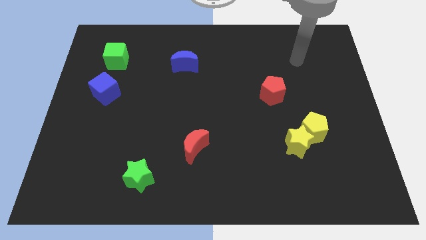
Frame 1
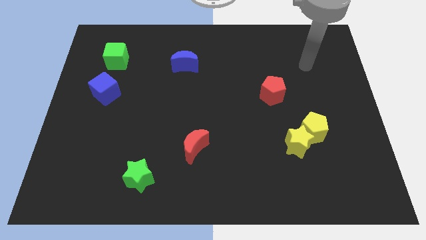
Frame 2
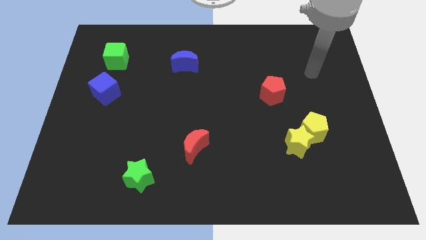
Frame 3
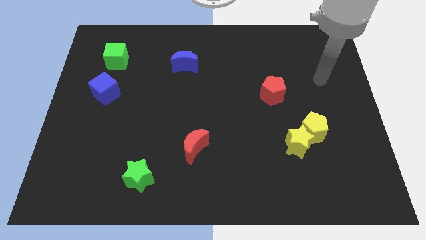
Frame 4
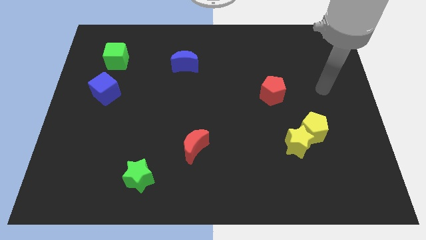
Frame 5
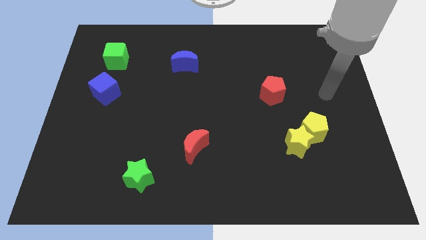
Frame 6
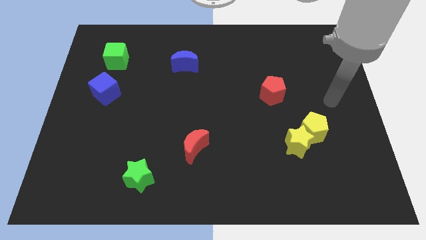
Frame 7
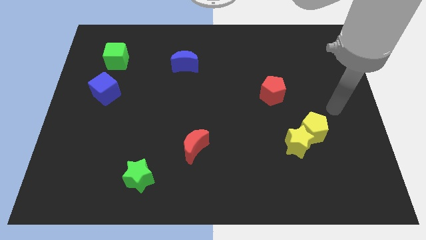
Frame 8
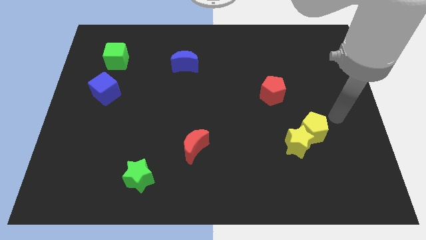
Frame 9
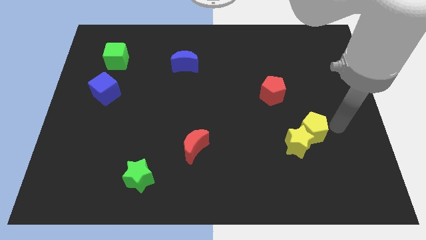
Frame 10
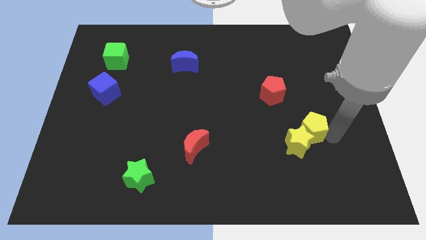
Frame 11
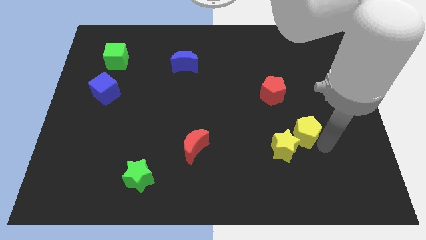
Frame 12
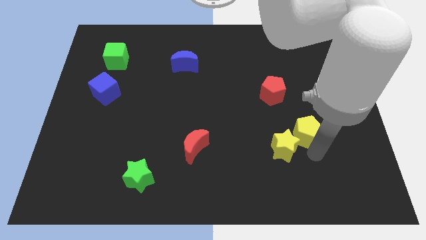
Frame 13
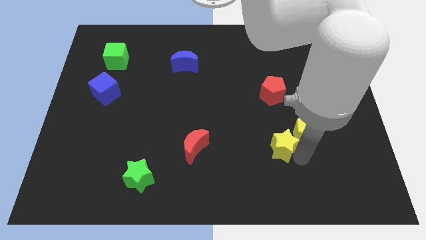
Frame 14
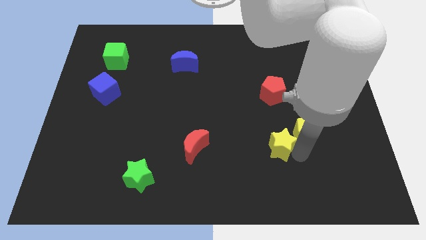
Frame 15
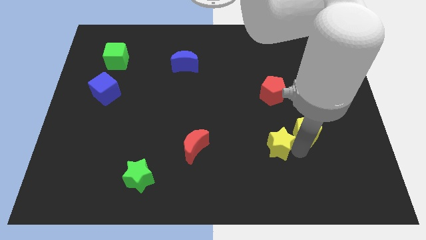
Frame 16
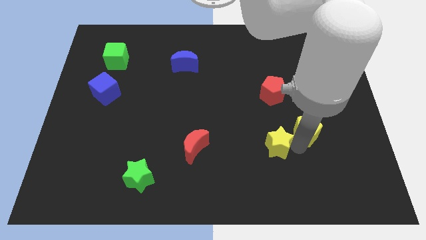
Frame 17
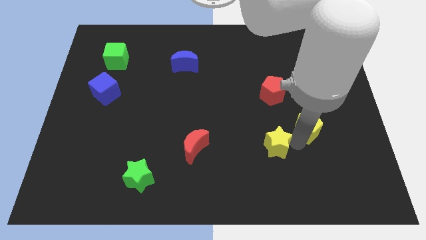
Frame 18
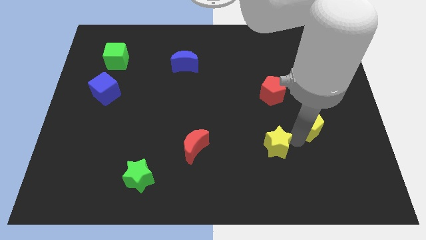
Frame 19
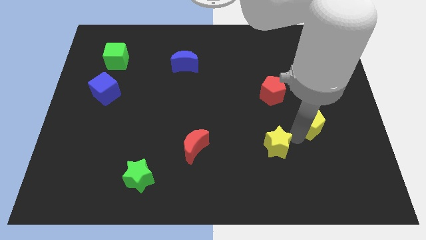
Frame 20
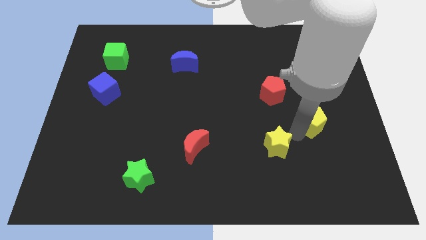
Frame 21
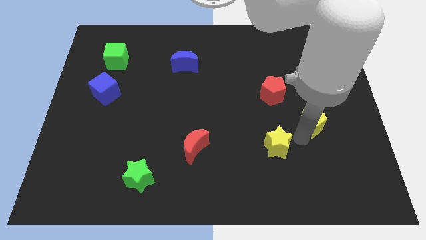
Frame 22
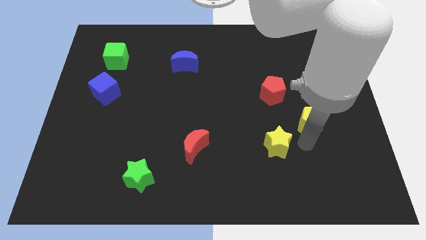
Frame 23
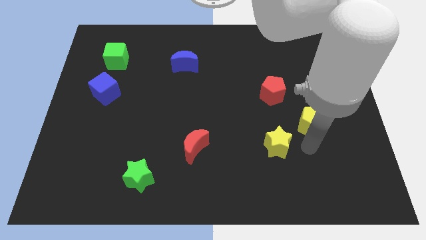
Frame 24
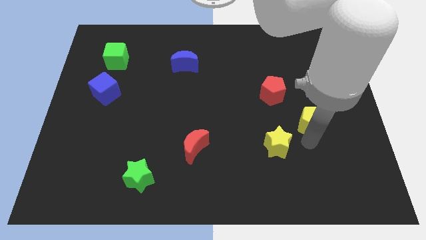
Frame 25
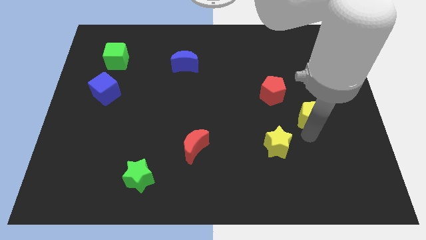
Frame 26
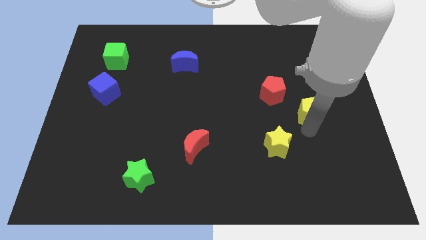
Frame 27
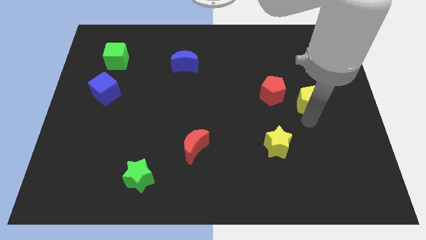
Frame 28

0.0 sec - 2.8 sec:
push the yellow pentagon a little bit upwards

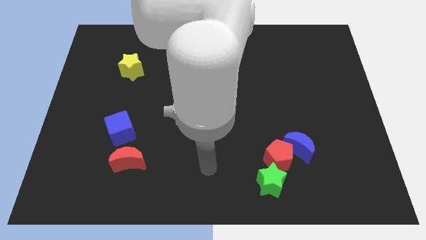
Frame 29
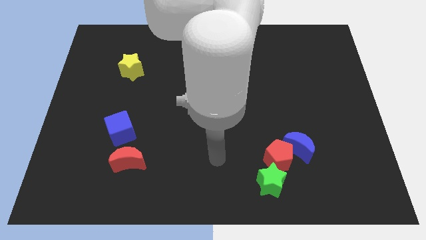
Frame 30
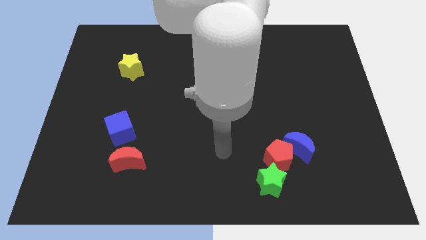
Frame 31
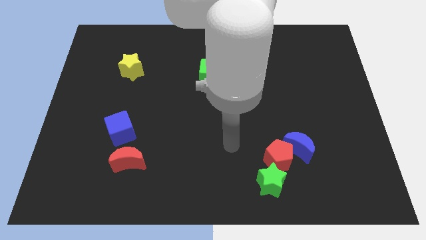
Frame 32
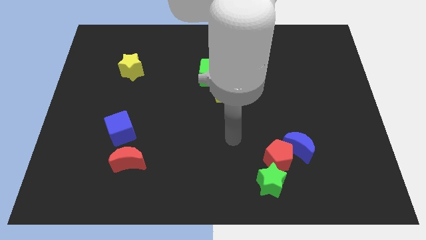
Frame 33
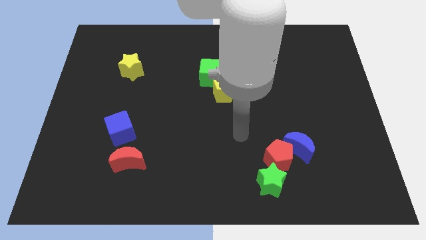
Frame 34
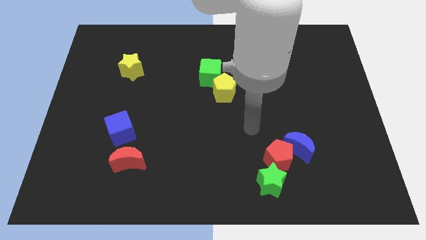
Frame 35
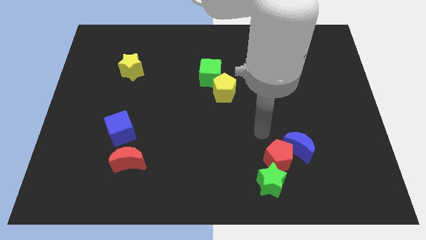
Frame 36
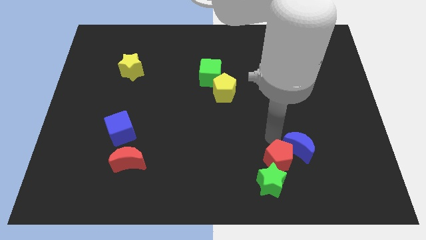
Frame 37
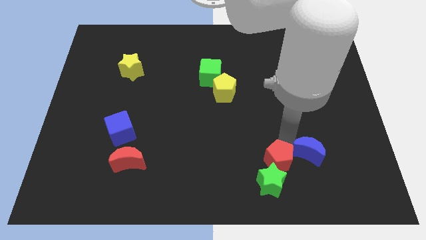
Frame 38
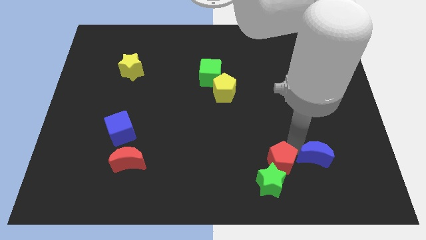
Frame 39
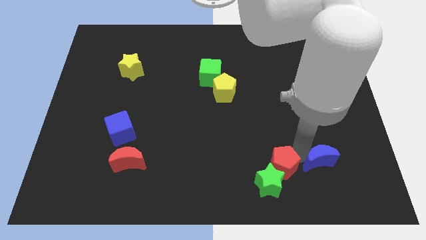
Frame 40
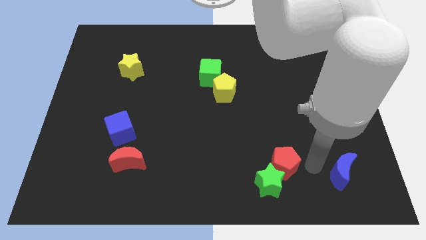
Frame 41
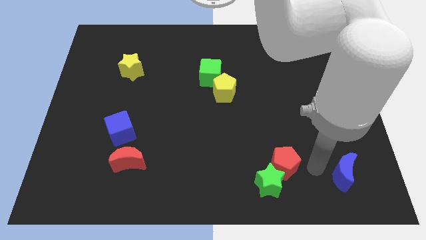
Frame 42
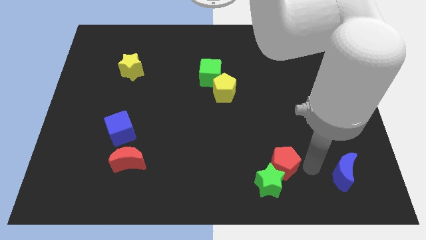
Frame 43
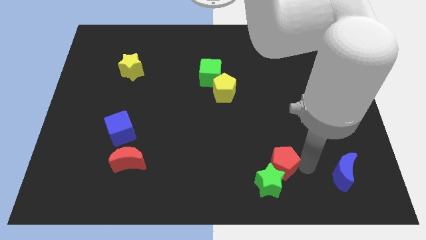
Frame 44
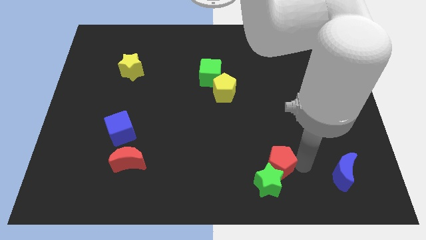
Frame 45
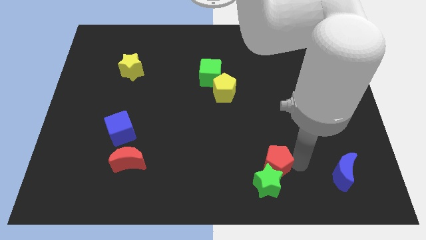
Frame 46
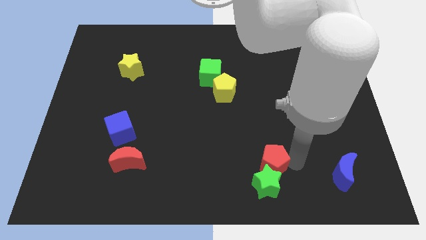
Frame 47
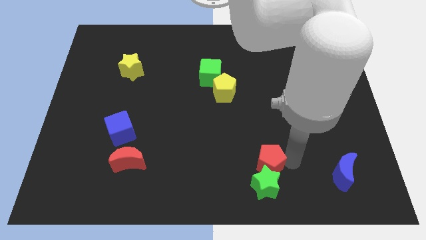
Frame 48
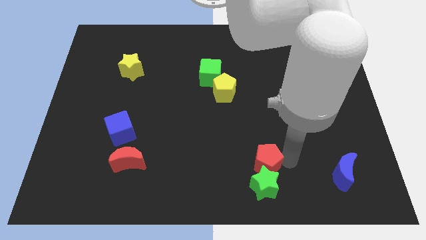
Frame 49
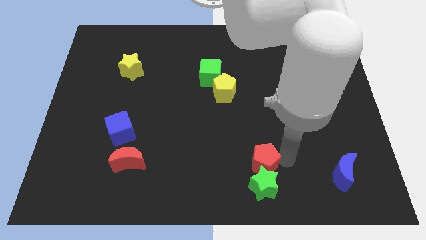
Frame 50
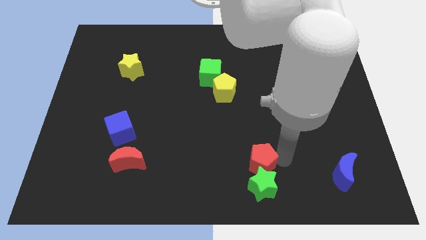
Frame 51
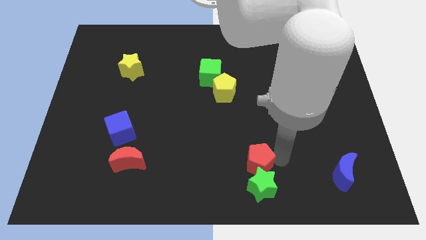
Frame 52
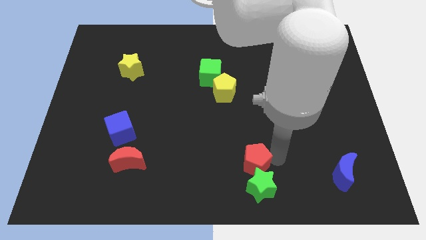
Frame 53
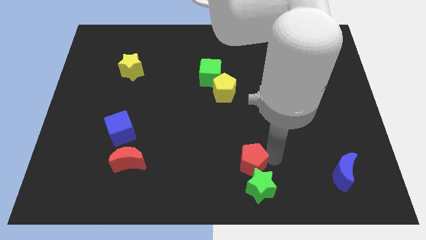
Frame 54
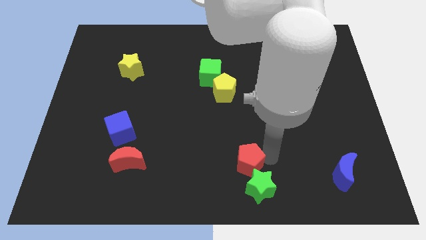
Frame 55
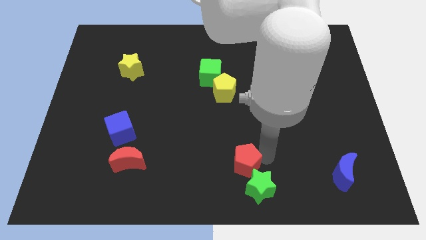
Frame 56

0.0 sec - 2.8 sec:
move the red pentagon a little to the left

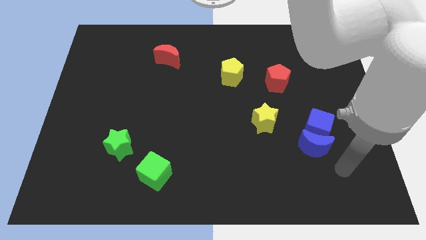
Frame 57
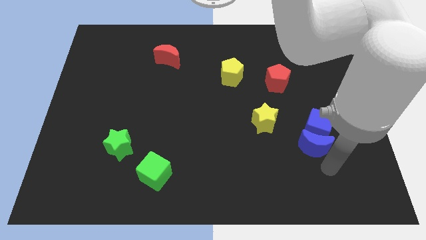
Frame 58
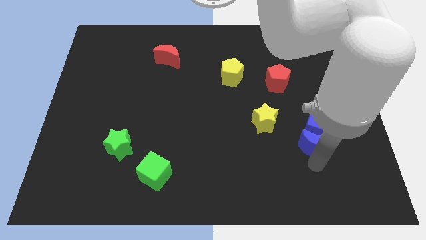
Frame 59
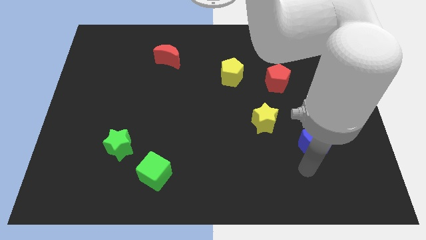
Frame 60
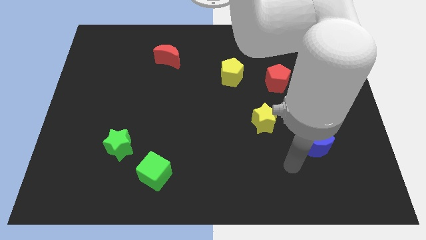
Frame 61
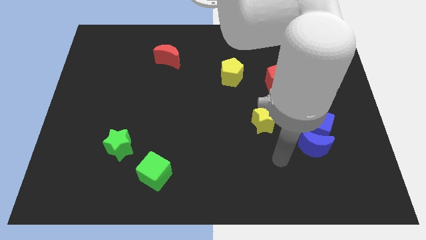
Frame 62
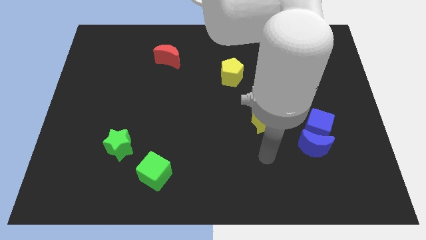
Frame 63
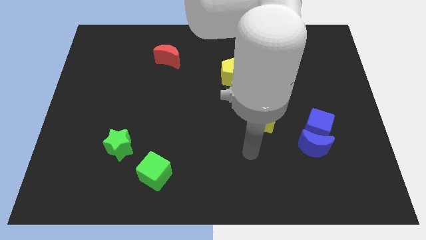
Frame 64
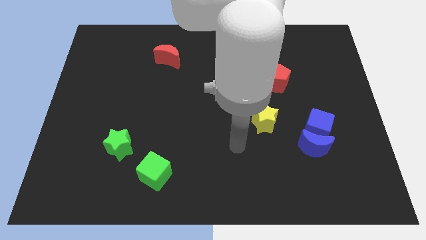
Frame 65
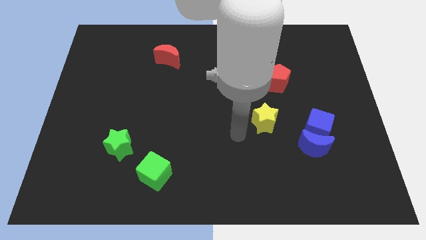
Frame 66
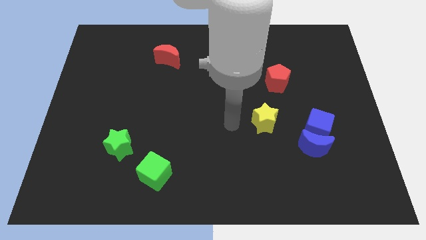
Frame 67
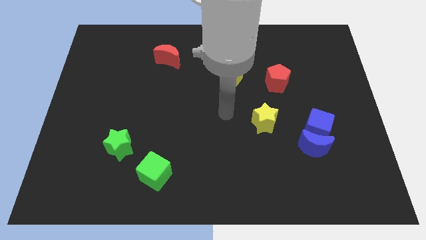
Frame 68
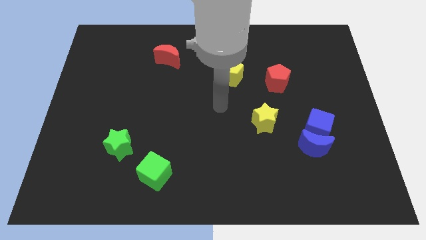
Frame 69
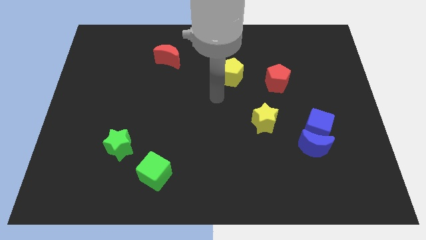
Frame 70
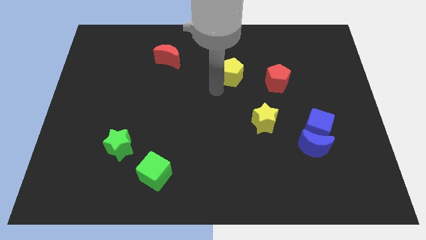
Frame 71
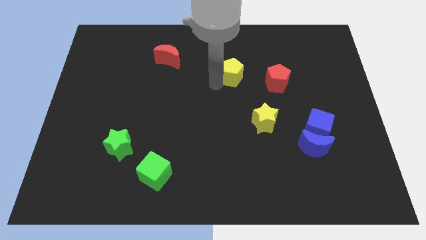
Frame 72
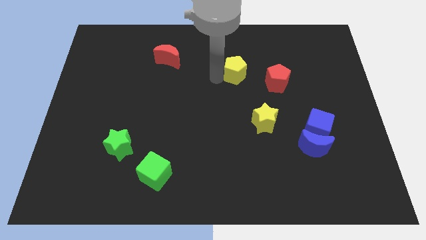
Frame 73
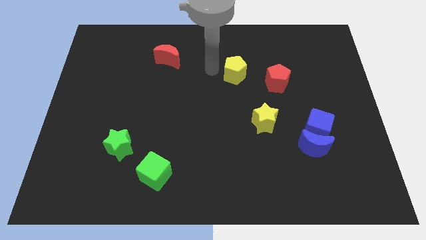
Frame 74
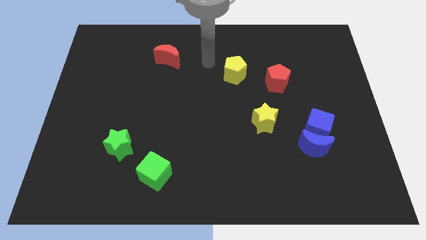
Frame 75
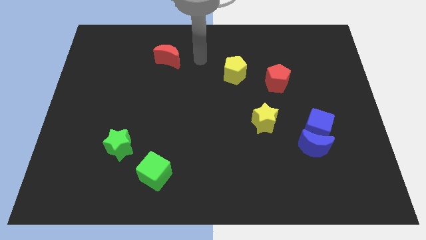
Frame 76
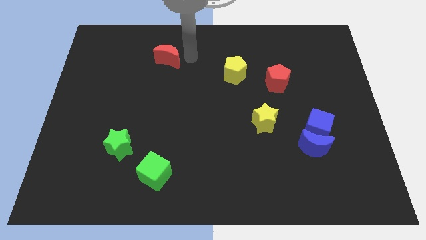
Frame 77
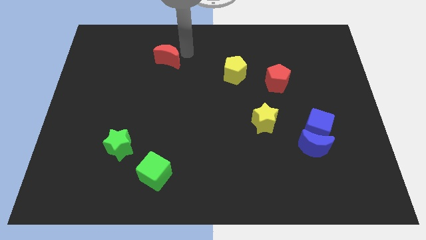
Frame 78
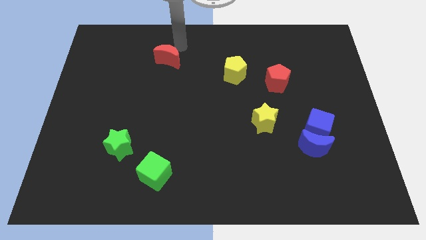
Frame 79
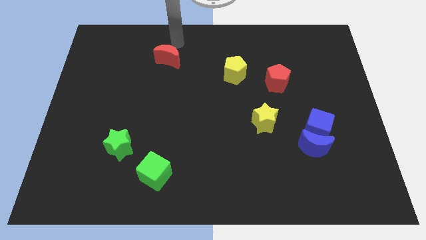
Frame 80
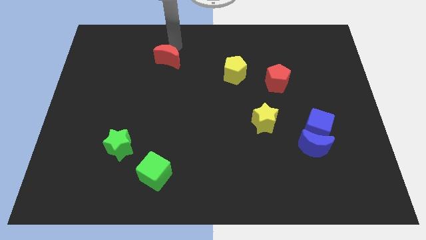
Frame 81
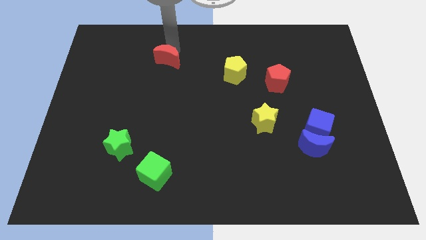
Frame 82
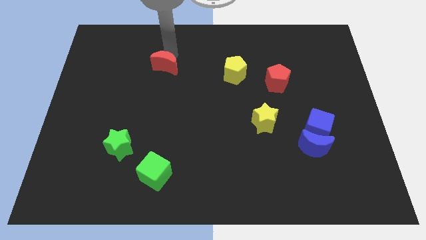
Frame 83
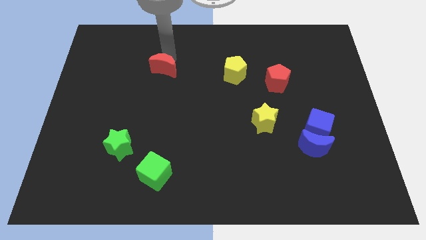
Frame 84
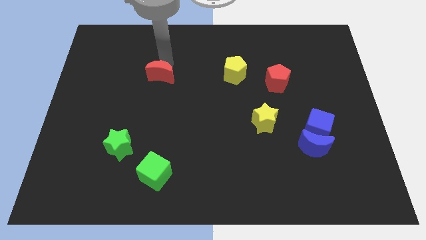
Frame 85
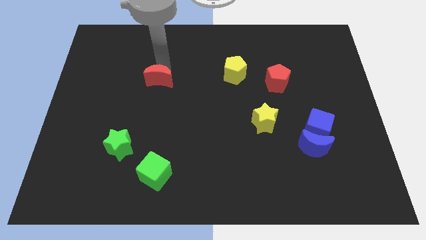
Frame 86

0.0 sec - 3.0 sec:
slide the red moon a bit down
